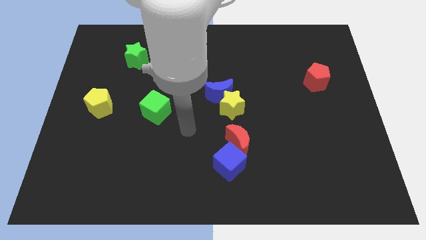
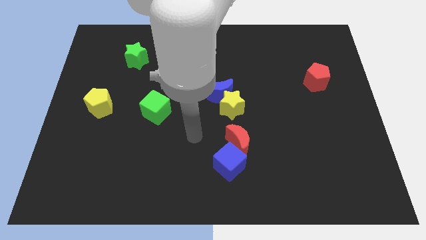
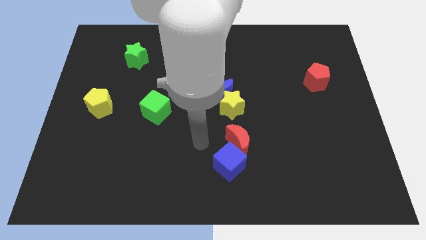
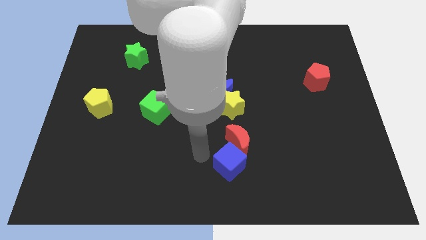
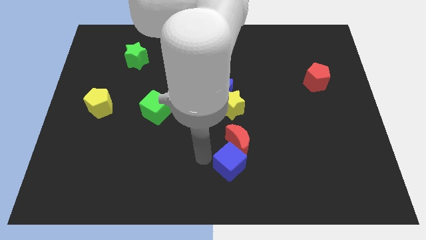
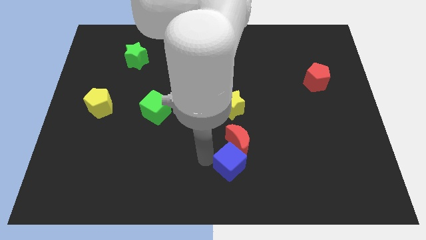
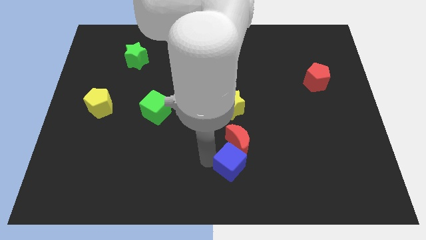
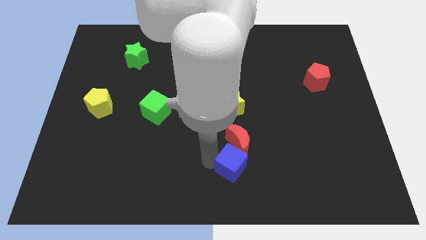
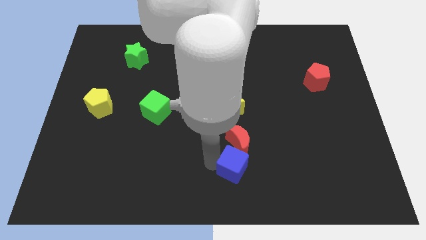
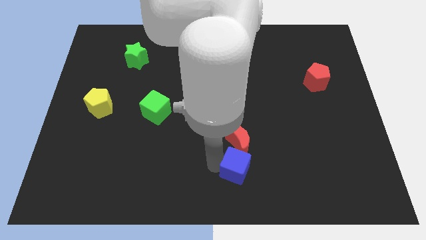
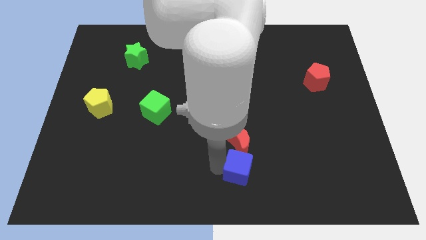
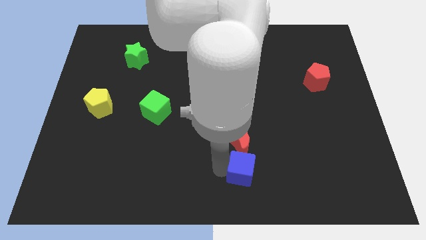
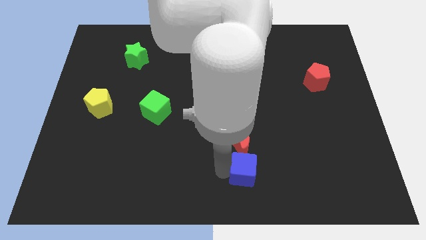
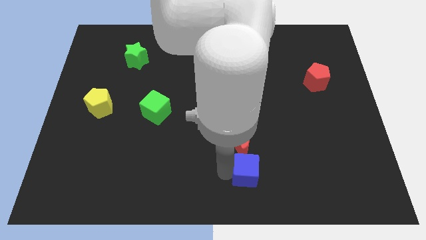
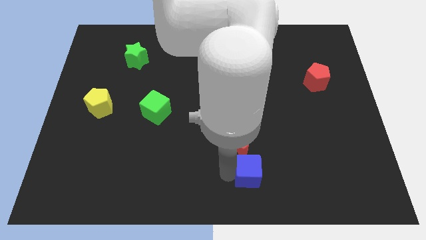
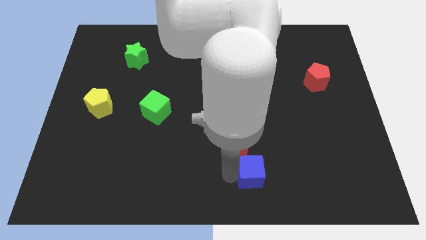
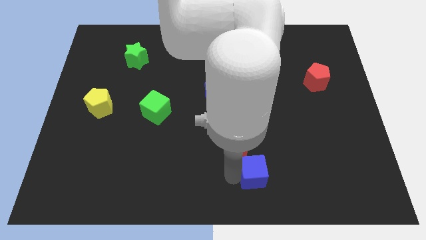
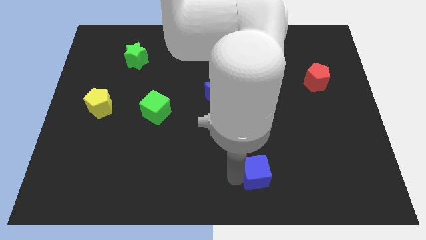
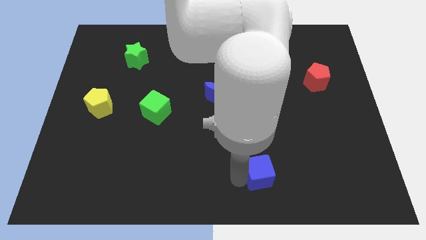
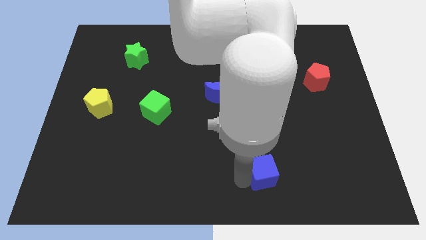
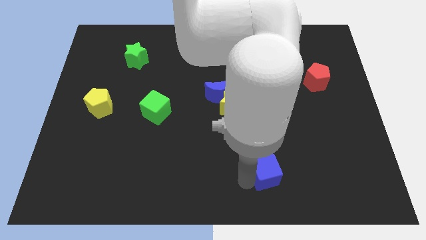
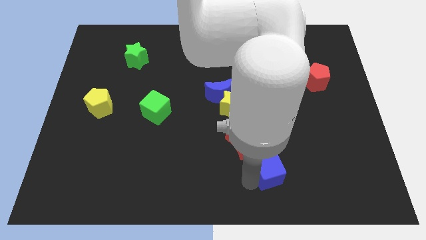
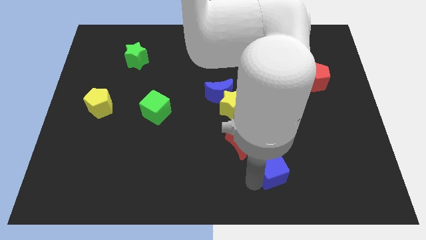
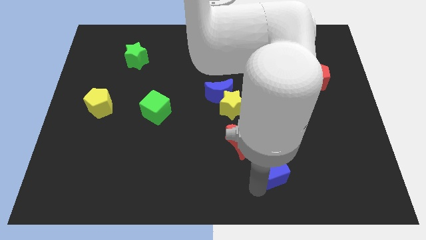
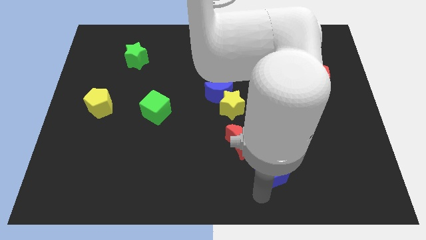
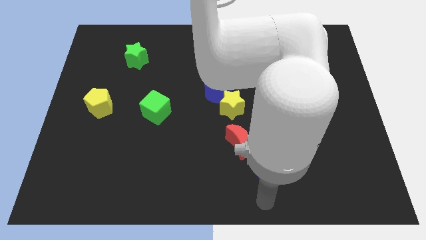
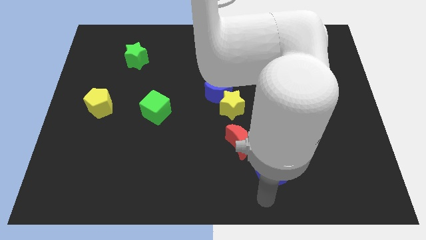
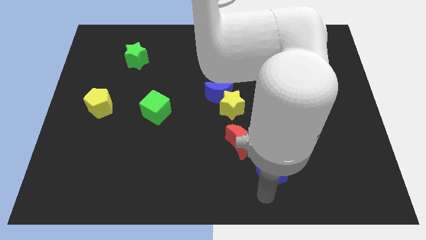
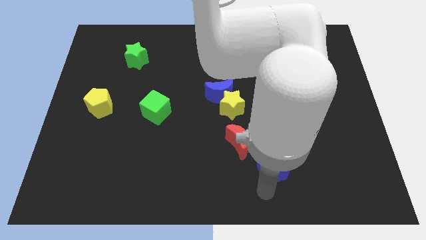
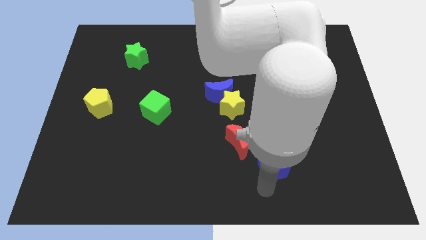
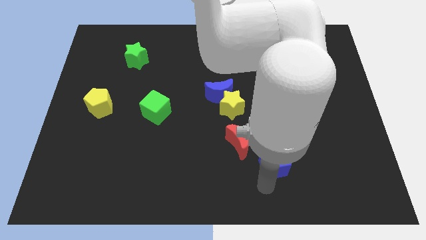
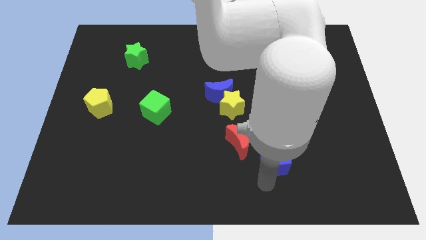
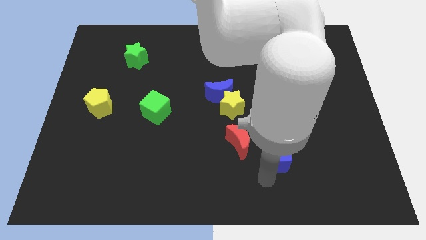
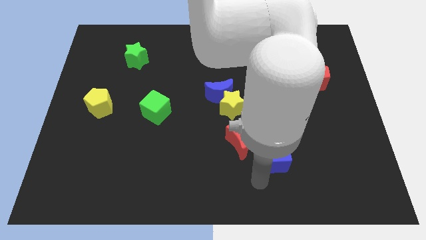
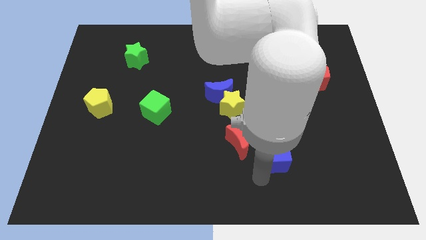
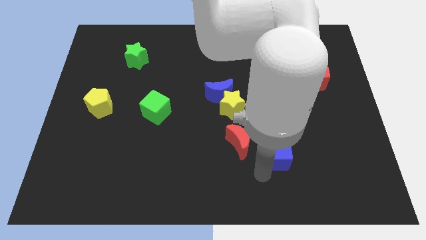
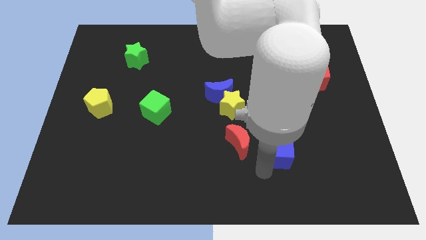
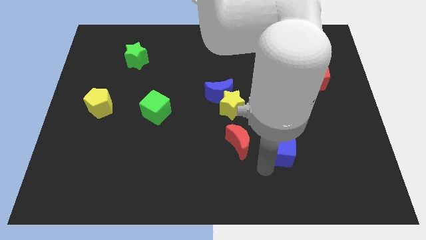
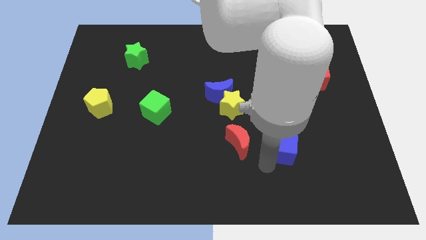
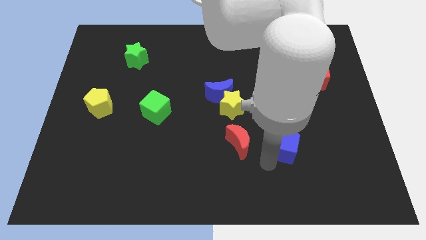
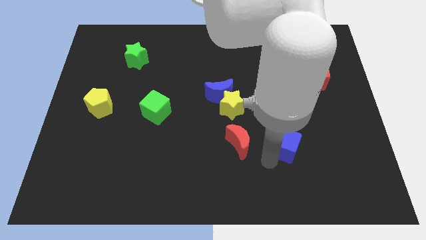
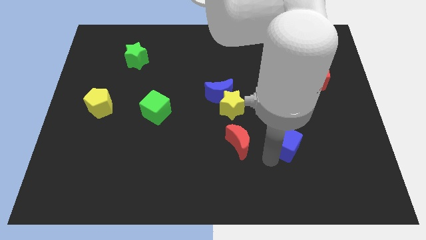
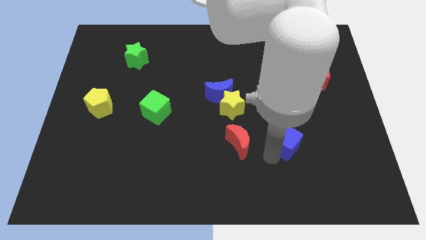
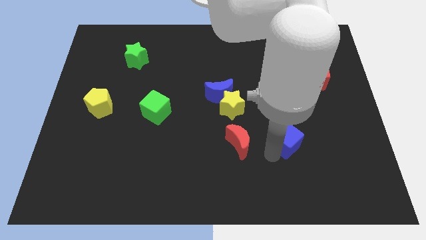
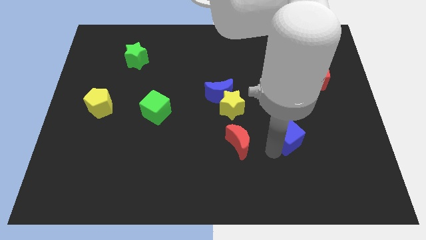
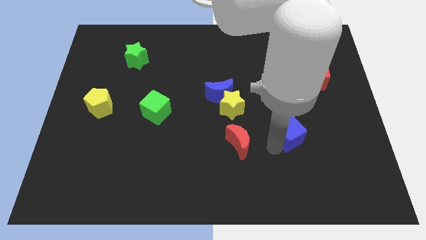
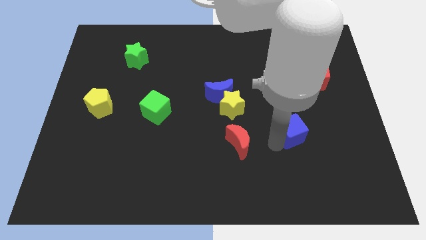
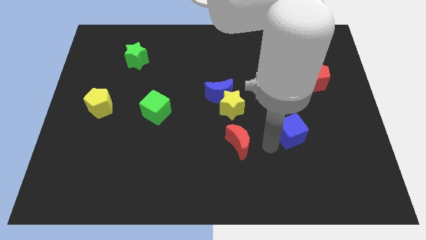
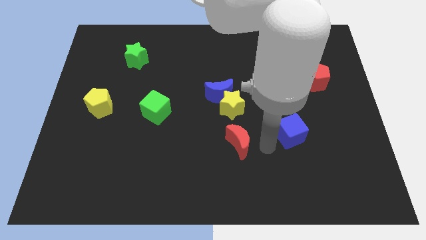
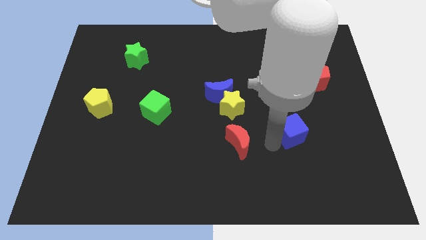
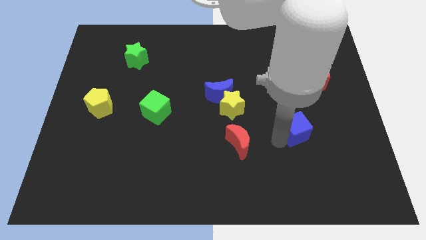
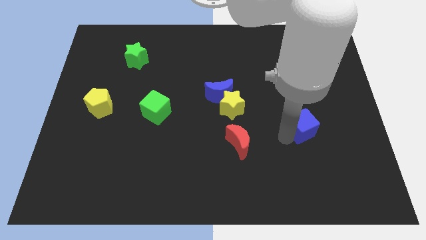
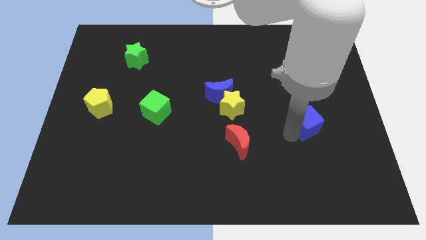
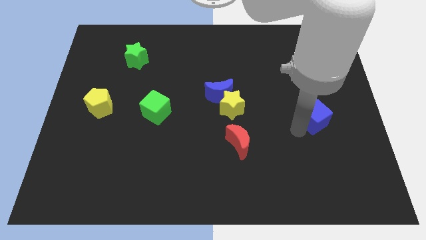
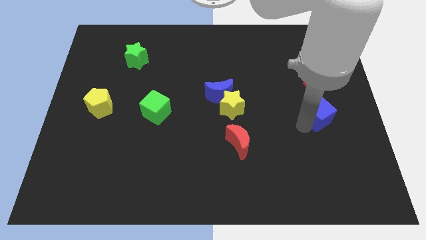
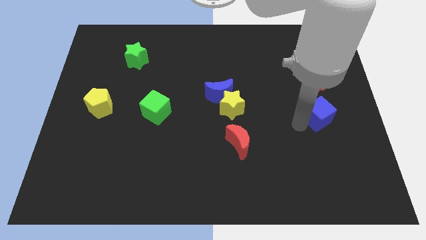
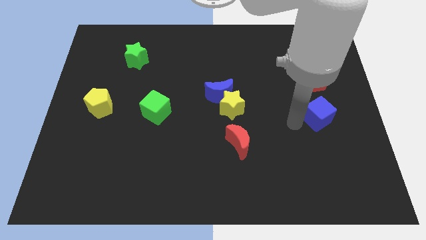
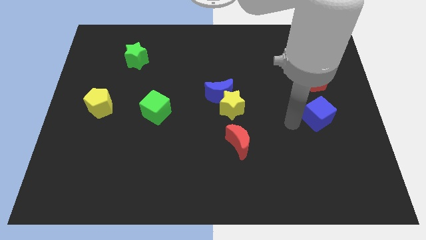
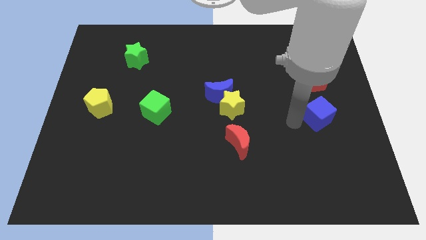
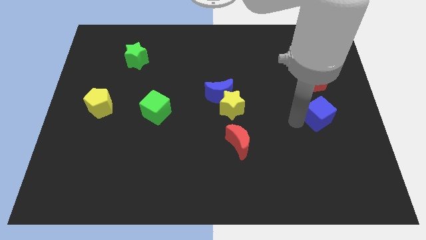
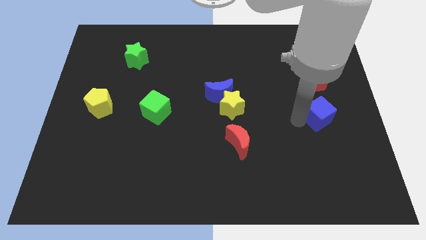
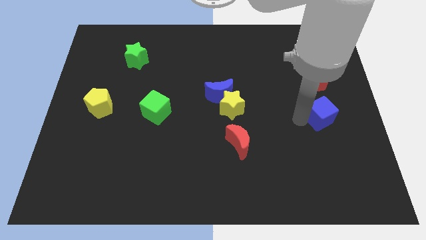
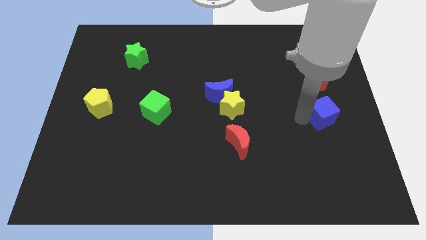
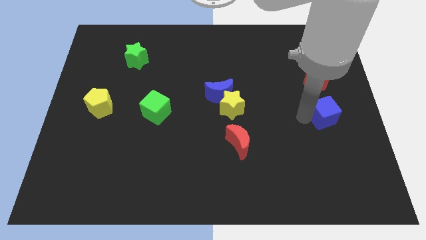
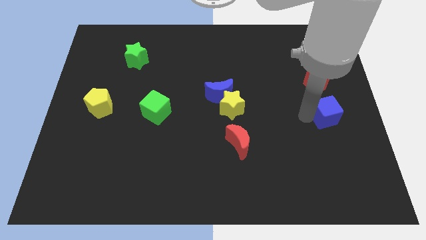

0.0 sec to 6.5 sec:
put the blue cube to the center right

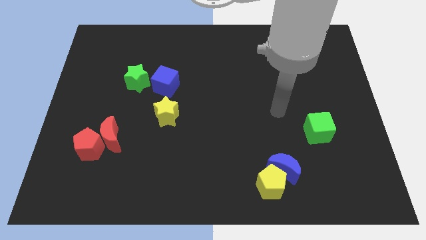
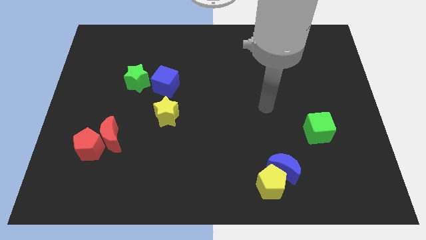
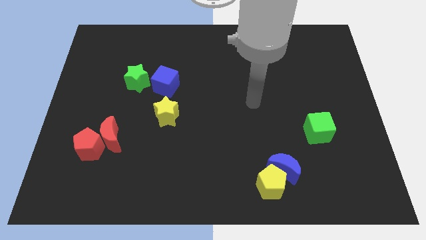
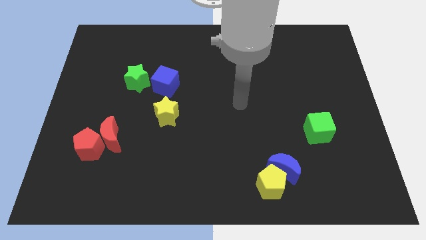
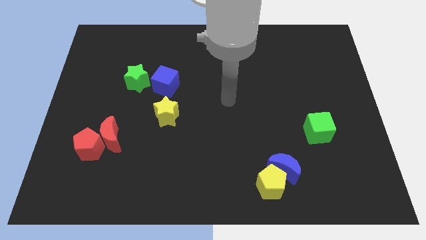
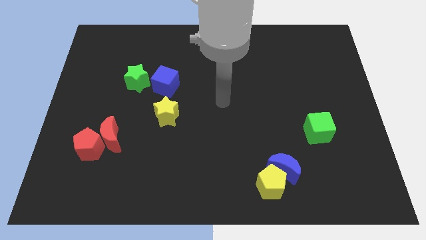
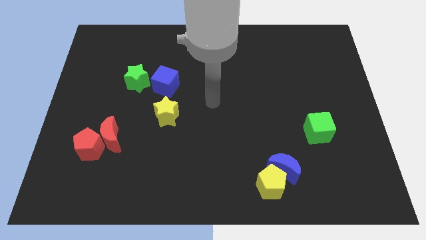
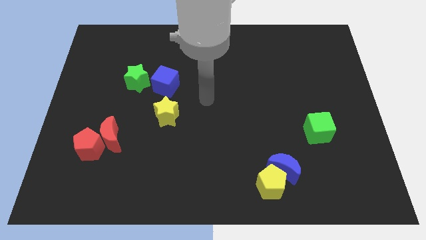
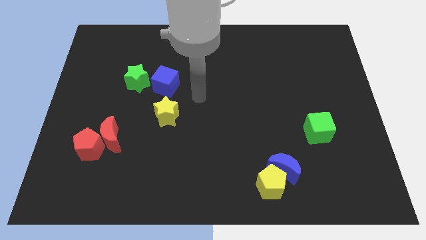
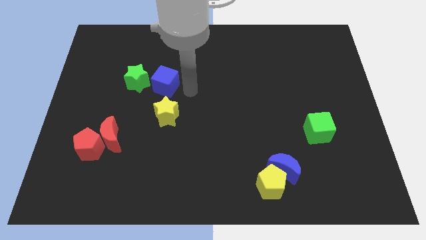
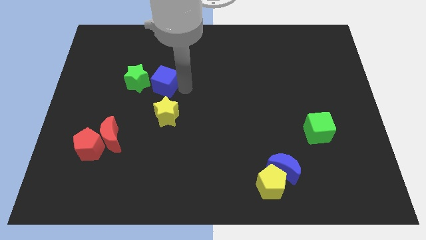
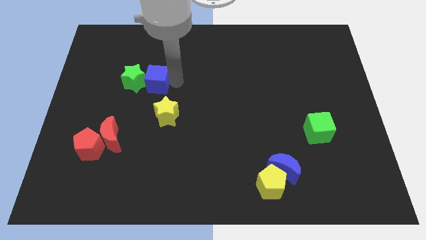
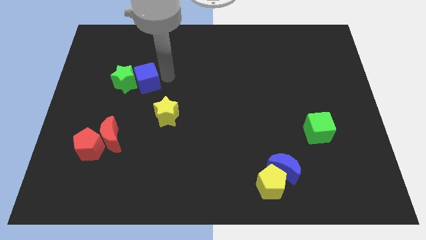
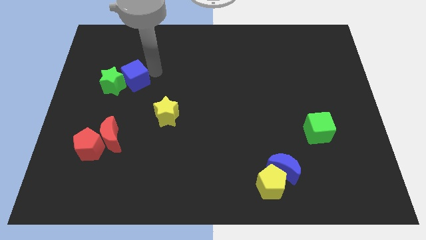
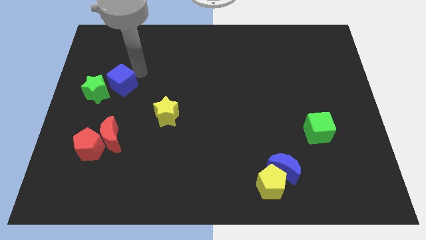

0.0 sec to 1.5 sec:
push the green star to the left side of the board
